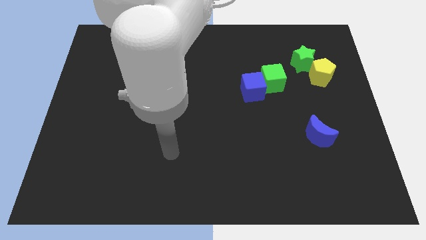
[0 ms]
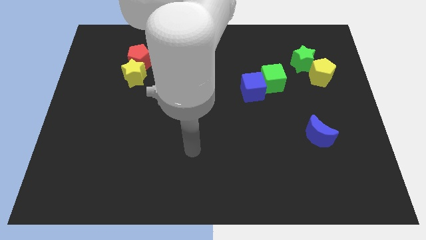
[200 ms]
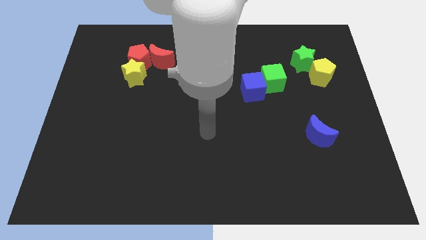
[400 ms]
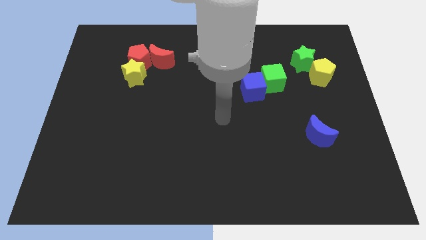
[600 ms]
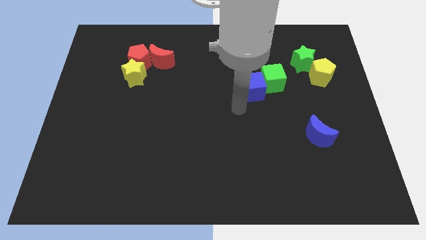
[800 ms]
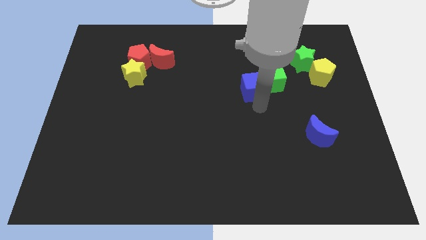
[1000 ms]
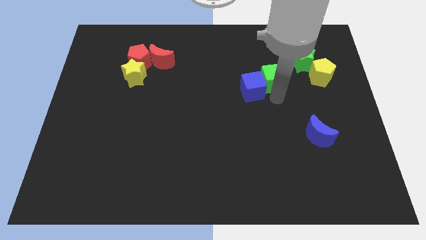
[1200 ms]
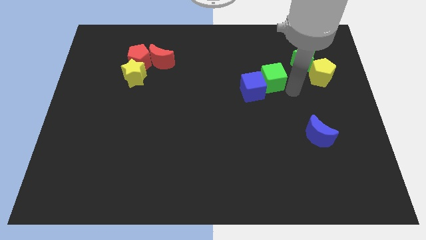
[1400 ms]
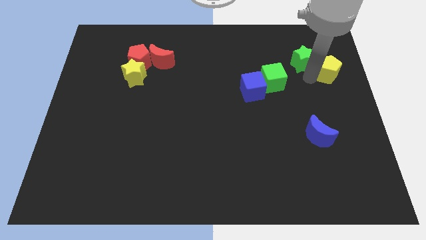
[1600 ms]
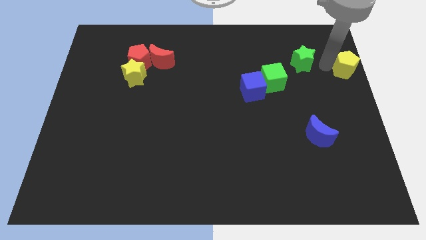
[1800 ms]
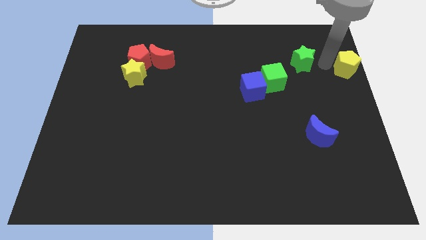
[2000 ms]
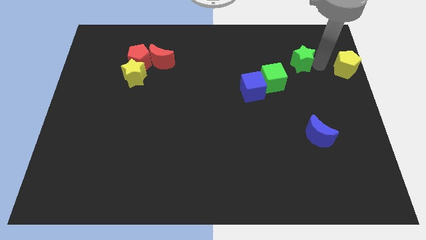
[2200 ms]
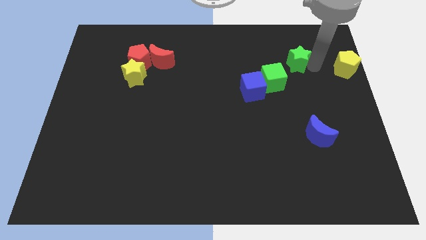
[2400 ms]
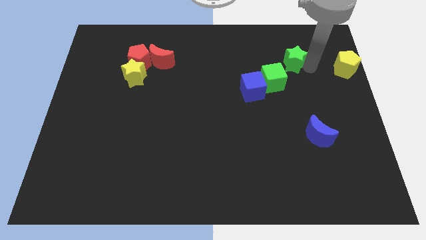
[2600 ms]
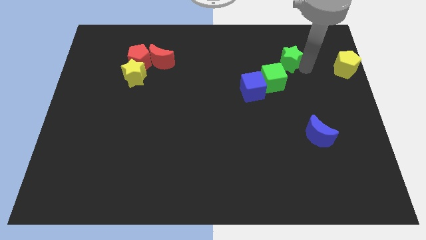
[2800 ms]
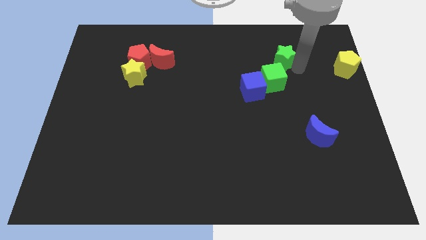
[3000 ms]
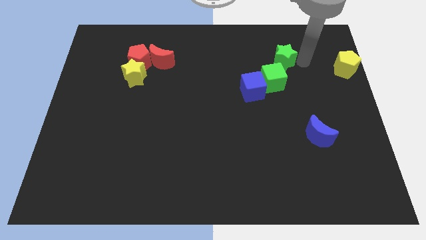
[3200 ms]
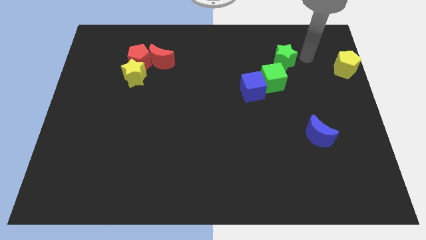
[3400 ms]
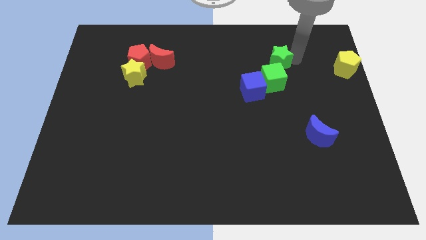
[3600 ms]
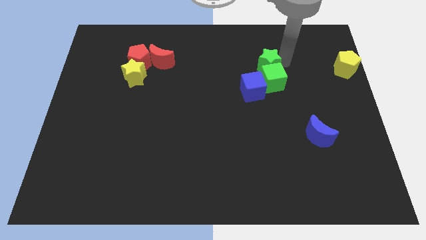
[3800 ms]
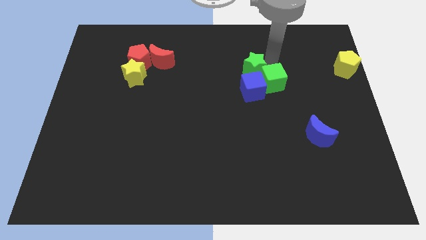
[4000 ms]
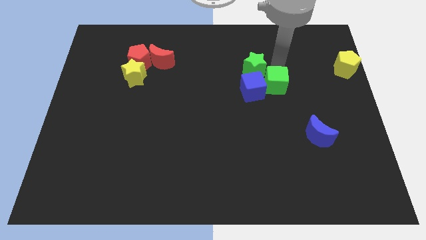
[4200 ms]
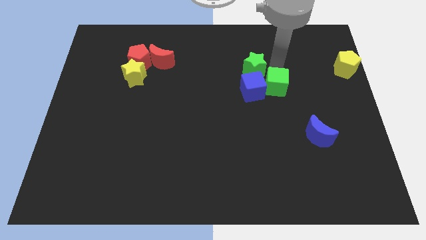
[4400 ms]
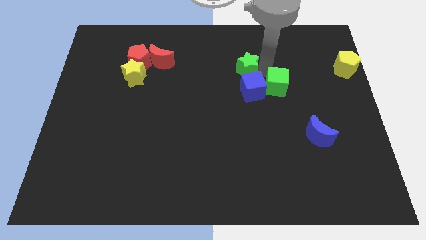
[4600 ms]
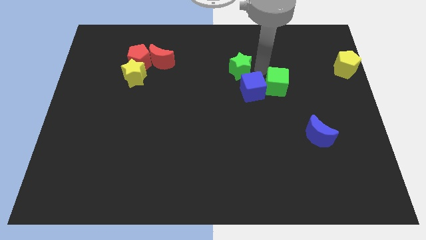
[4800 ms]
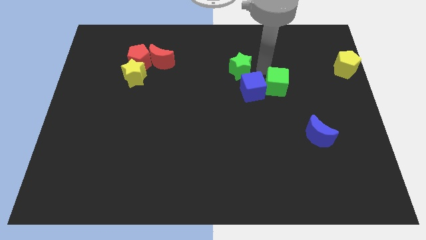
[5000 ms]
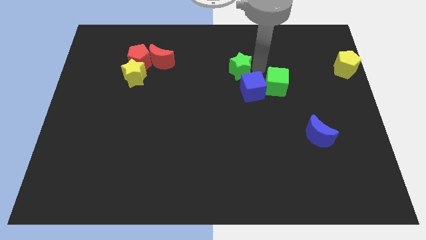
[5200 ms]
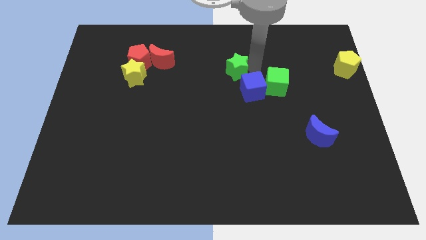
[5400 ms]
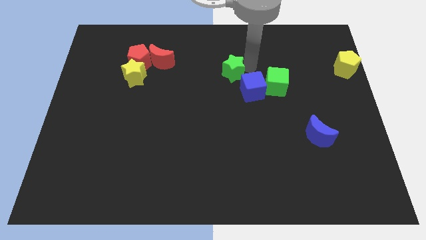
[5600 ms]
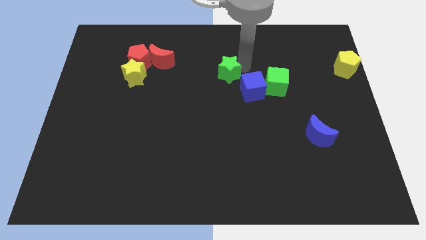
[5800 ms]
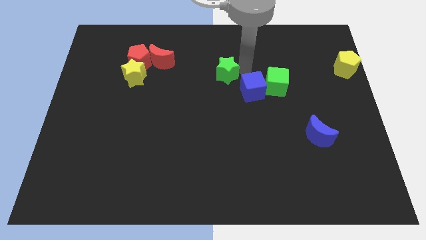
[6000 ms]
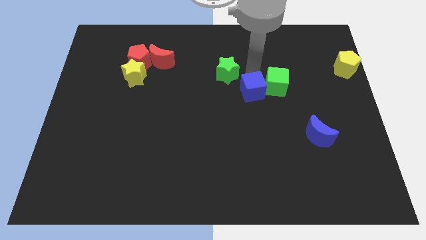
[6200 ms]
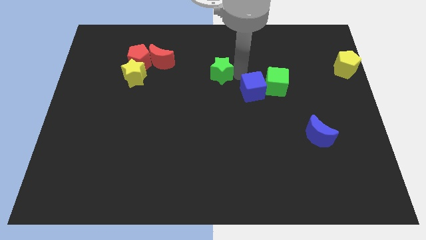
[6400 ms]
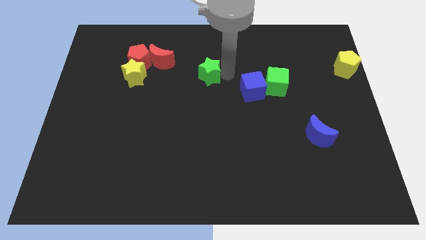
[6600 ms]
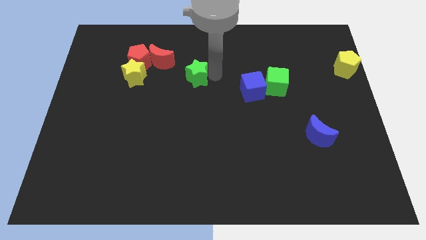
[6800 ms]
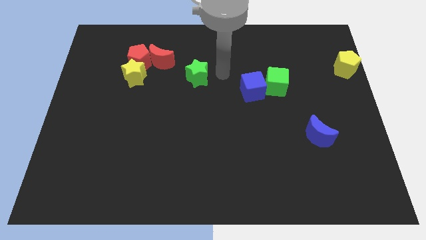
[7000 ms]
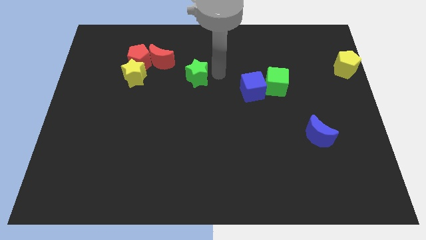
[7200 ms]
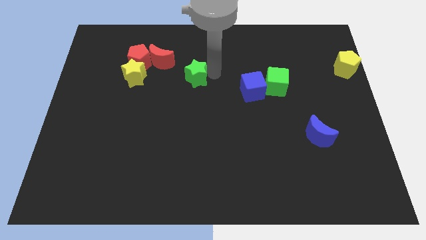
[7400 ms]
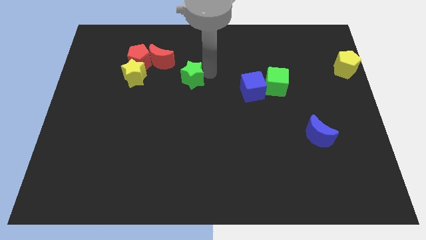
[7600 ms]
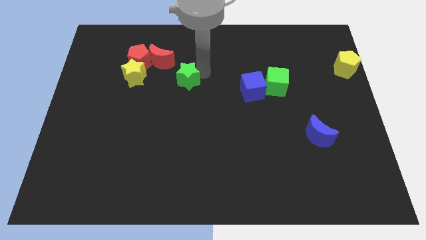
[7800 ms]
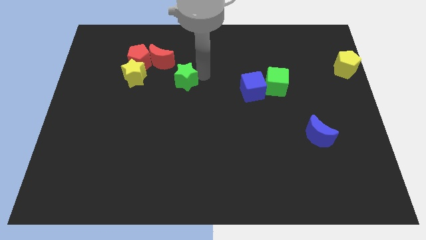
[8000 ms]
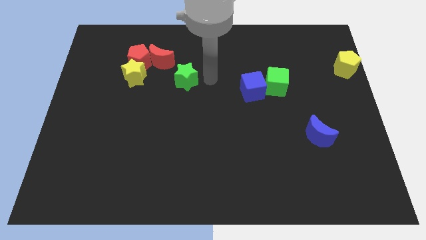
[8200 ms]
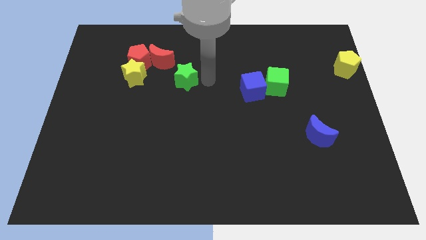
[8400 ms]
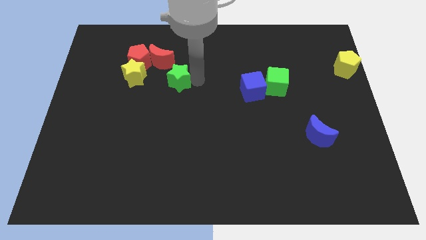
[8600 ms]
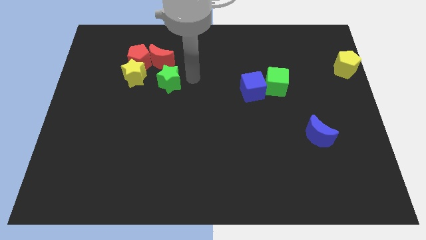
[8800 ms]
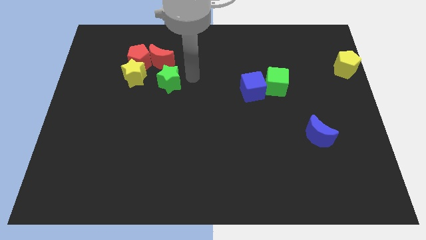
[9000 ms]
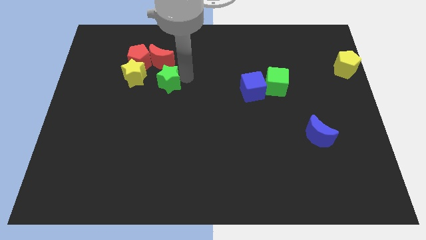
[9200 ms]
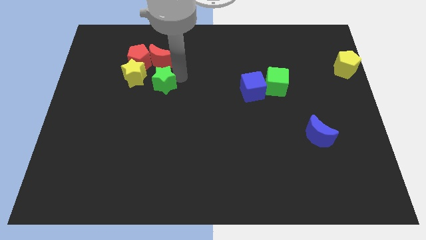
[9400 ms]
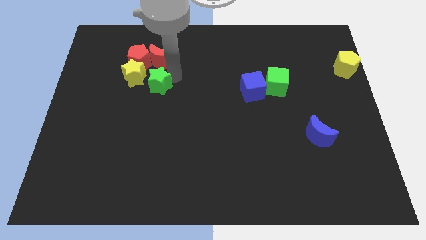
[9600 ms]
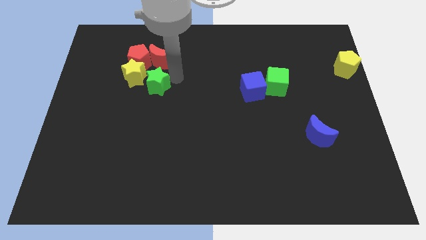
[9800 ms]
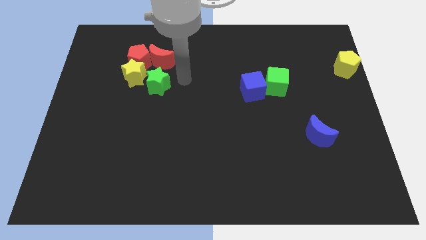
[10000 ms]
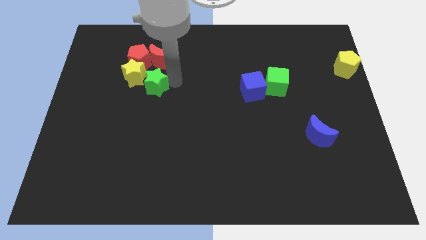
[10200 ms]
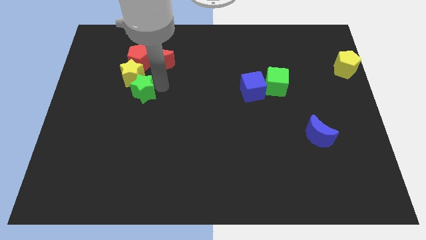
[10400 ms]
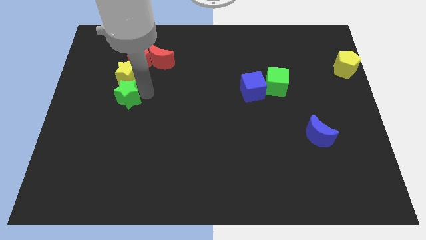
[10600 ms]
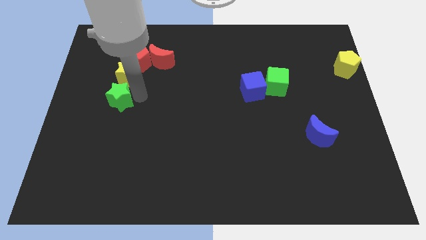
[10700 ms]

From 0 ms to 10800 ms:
push the green star diagonally down and to the left of the yellow star

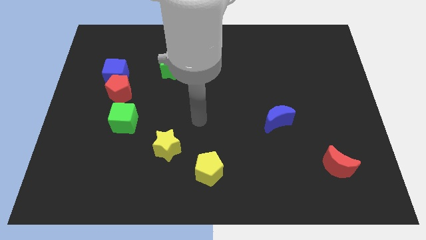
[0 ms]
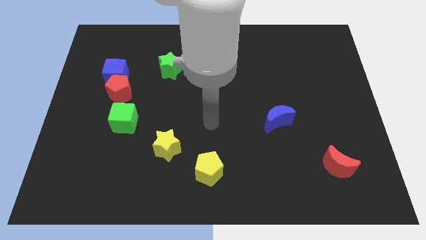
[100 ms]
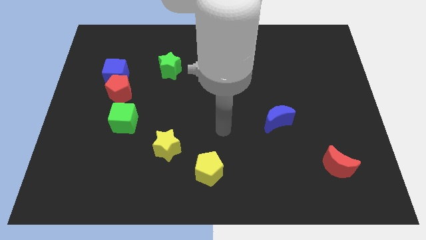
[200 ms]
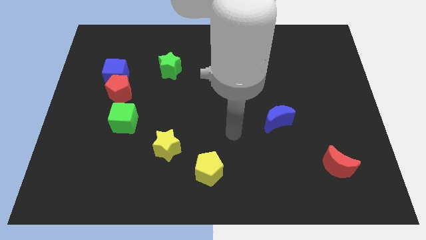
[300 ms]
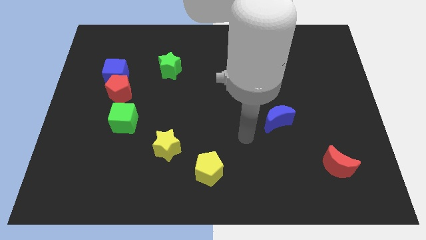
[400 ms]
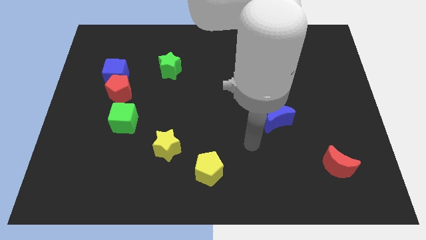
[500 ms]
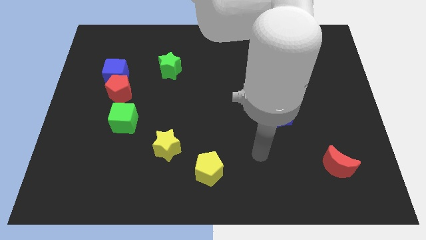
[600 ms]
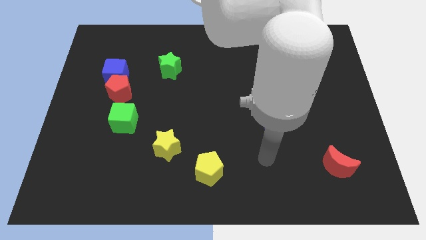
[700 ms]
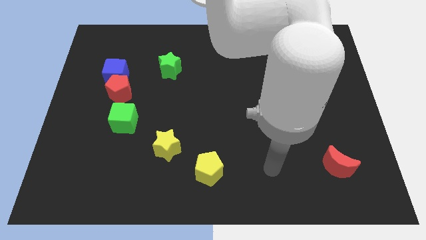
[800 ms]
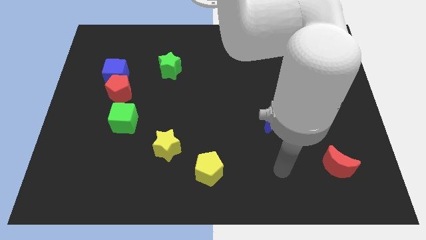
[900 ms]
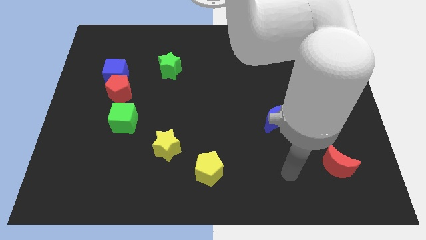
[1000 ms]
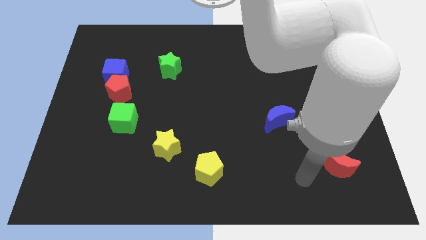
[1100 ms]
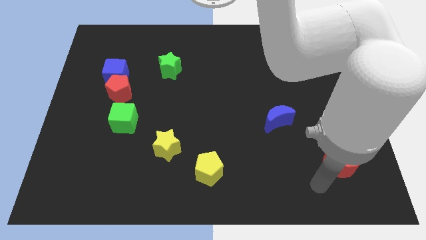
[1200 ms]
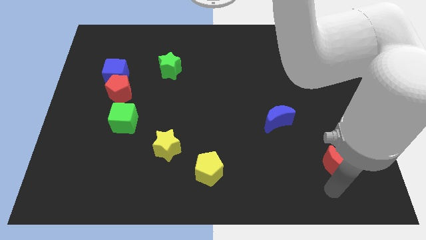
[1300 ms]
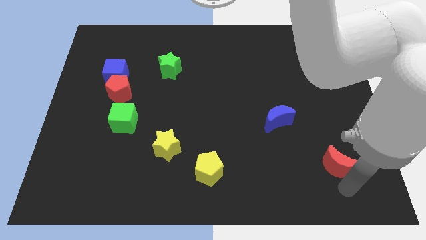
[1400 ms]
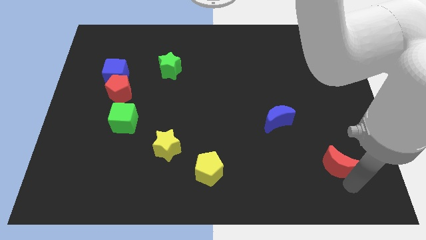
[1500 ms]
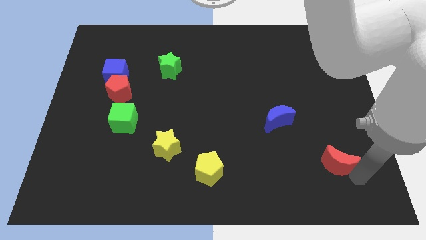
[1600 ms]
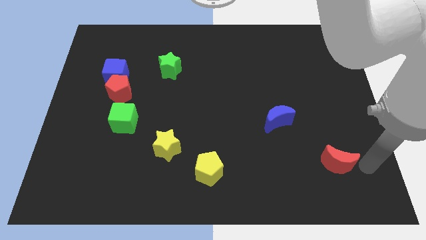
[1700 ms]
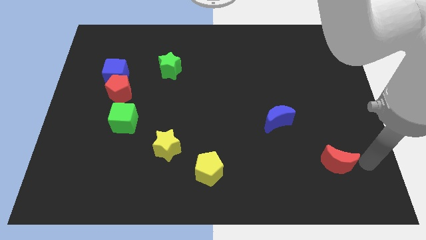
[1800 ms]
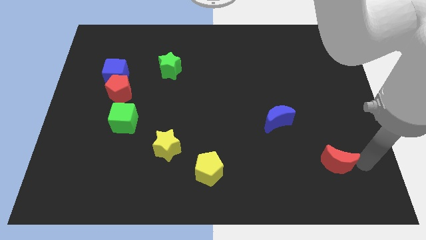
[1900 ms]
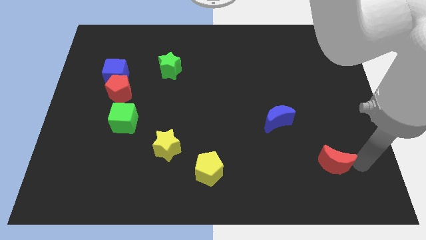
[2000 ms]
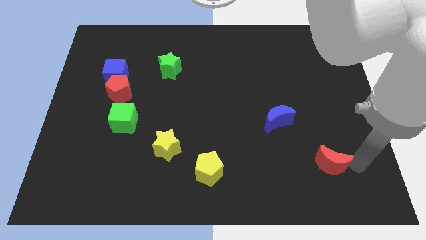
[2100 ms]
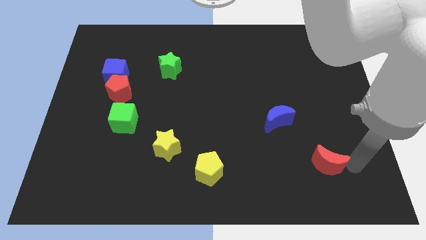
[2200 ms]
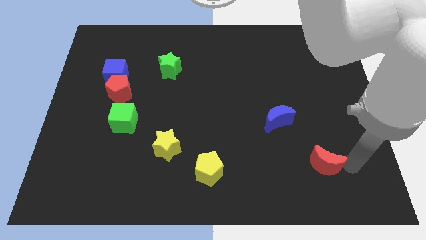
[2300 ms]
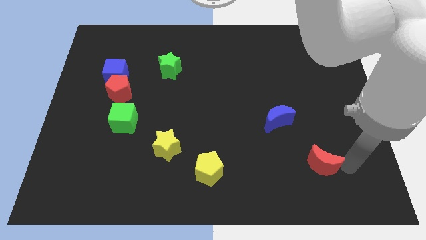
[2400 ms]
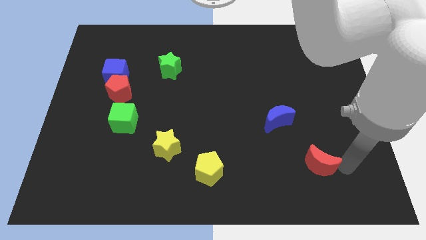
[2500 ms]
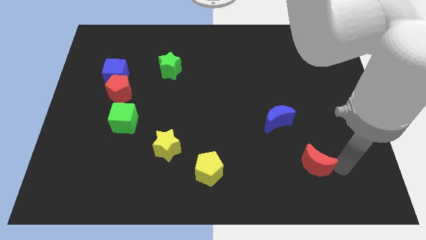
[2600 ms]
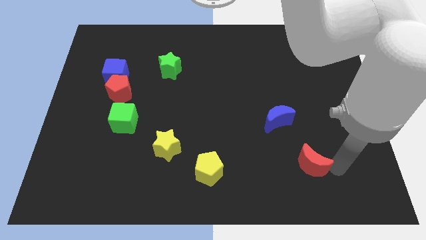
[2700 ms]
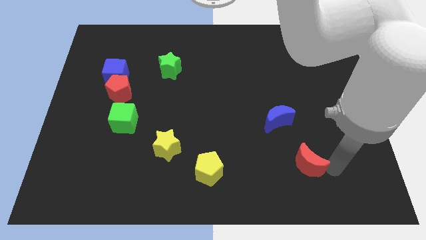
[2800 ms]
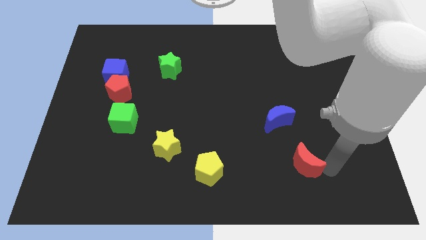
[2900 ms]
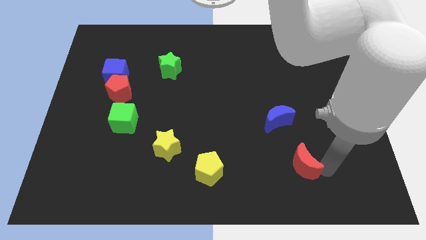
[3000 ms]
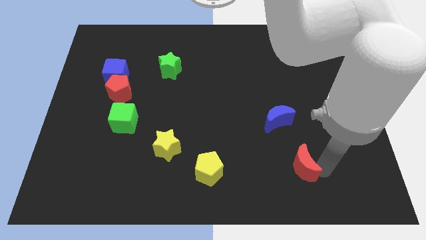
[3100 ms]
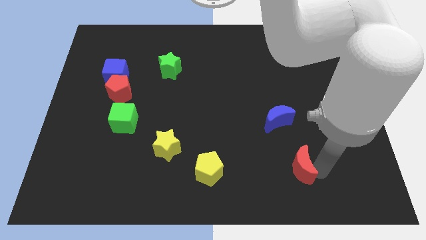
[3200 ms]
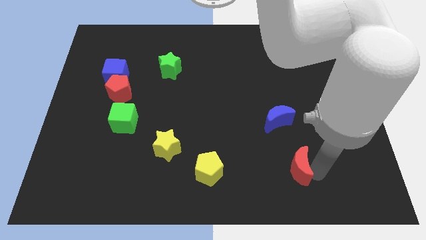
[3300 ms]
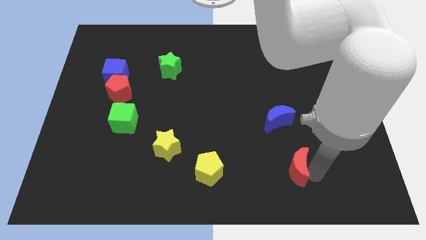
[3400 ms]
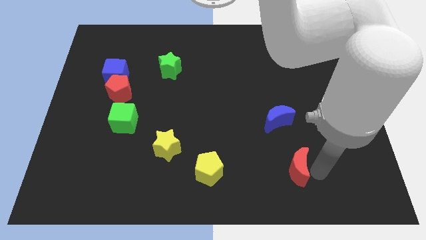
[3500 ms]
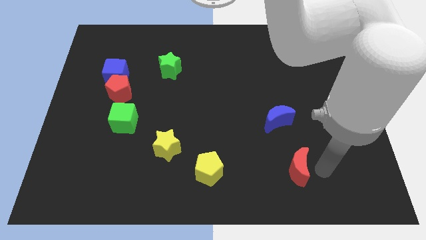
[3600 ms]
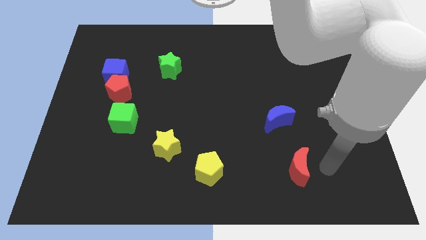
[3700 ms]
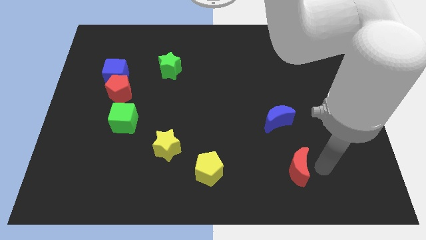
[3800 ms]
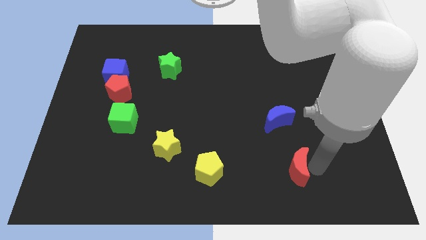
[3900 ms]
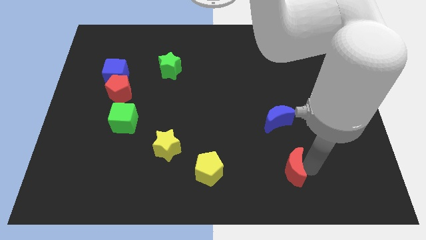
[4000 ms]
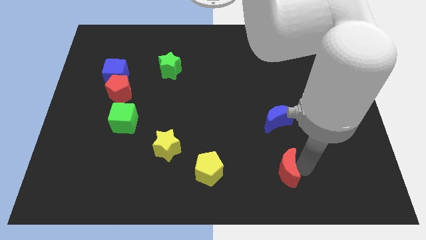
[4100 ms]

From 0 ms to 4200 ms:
slide the red moon to the right side of the yellow pentagon
